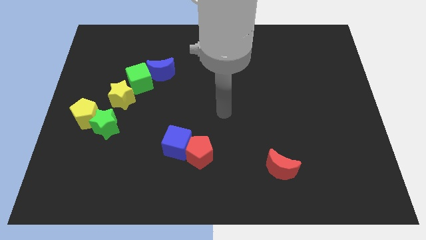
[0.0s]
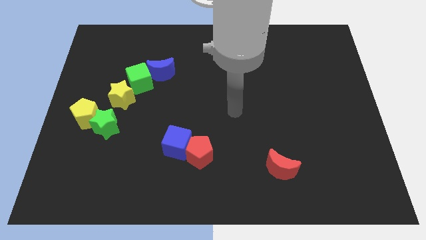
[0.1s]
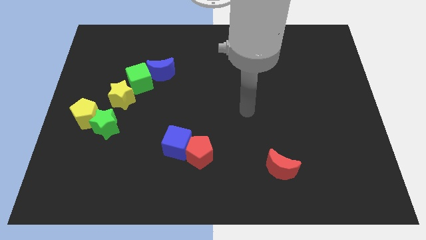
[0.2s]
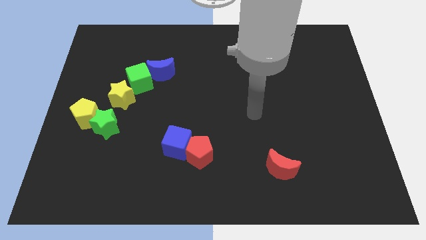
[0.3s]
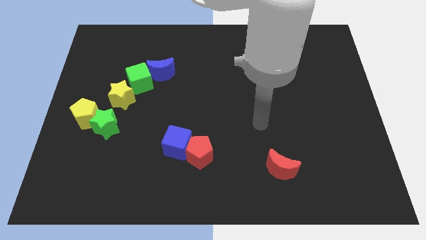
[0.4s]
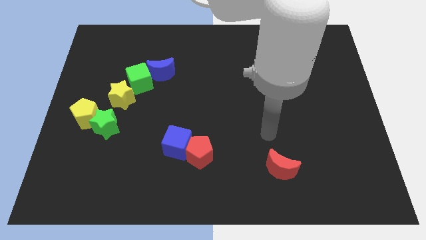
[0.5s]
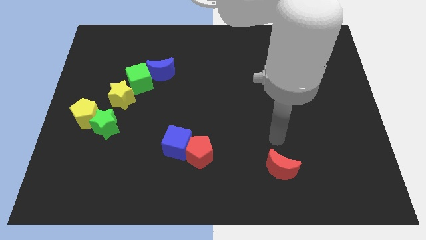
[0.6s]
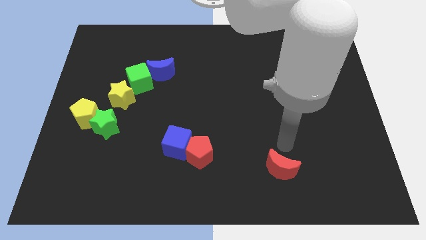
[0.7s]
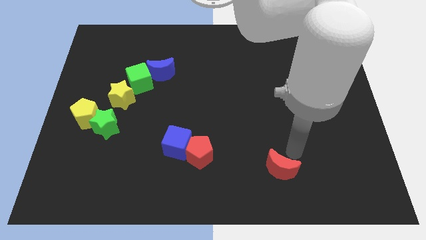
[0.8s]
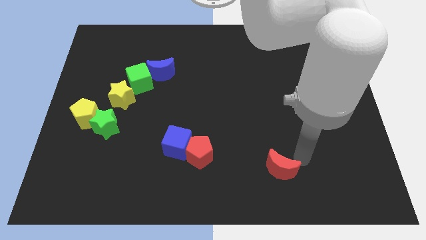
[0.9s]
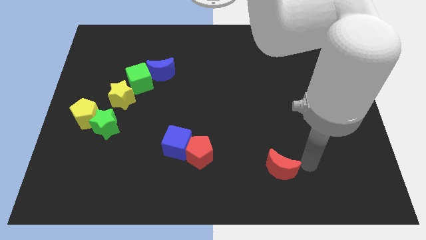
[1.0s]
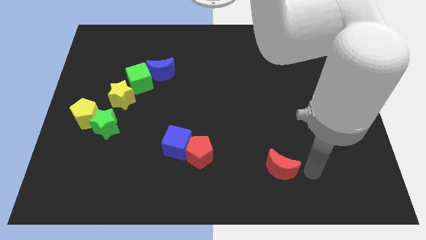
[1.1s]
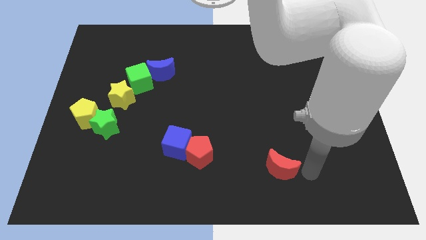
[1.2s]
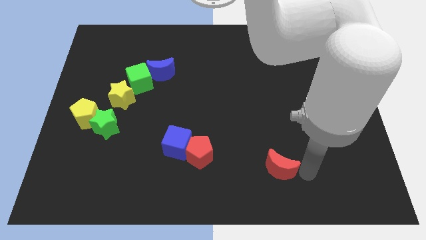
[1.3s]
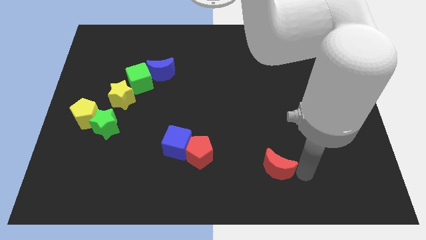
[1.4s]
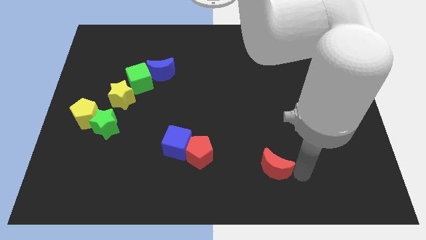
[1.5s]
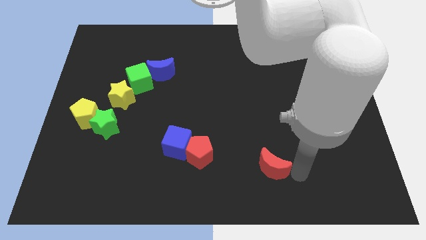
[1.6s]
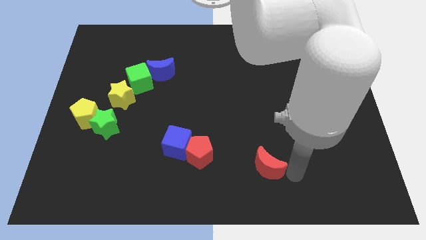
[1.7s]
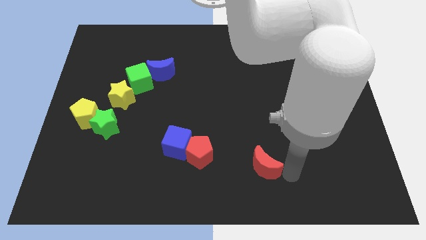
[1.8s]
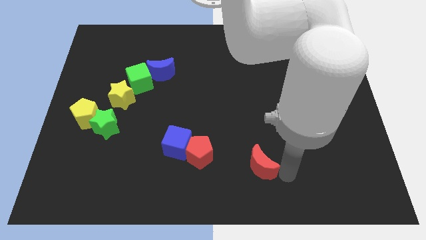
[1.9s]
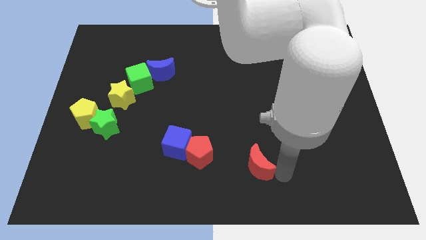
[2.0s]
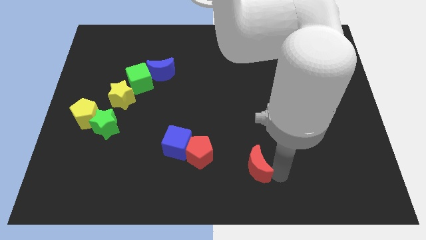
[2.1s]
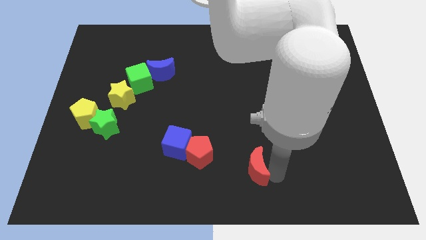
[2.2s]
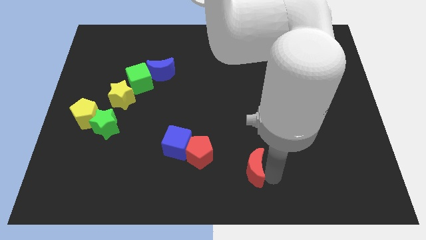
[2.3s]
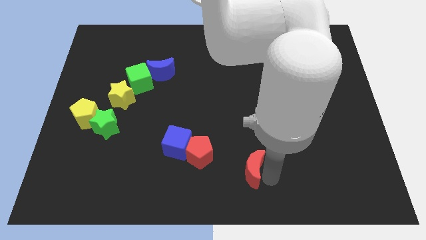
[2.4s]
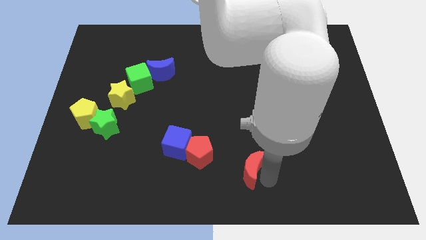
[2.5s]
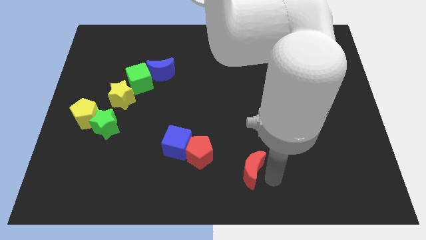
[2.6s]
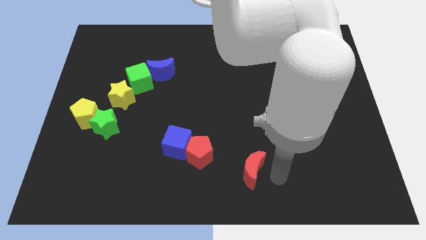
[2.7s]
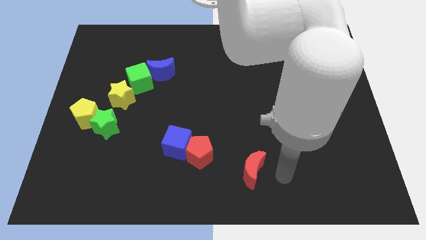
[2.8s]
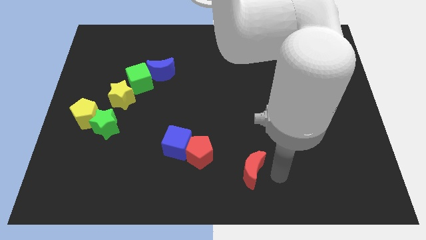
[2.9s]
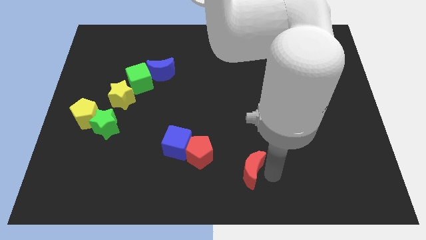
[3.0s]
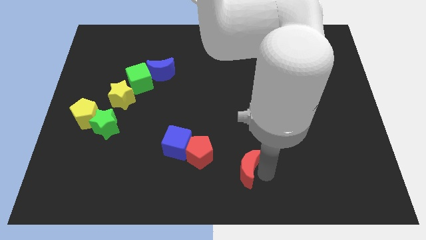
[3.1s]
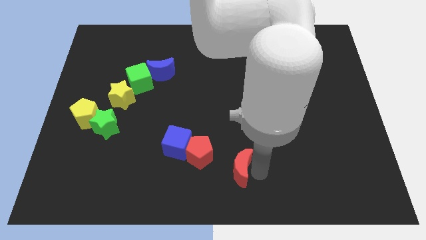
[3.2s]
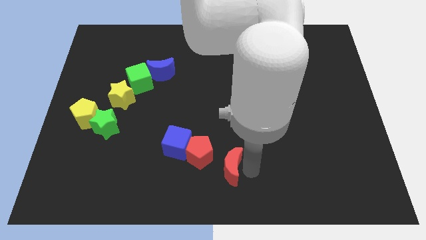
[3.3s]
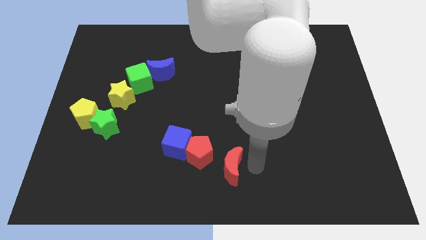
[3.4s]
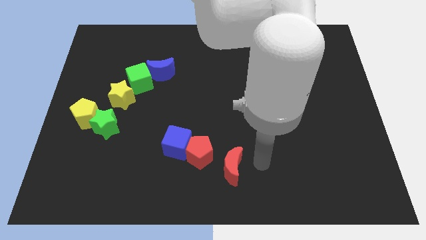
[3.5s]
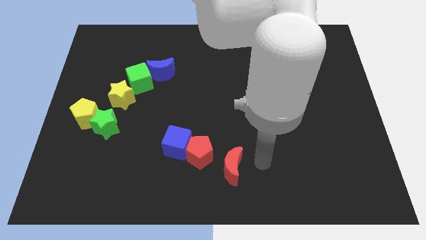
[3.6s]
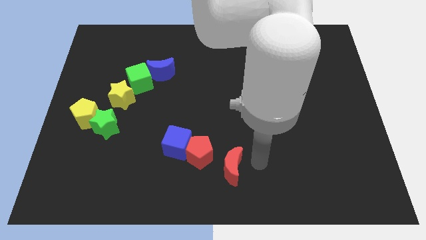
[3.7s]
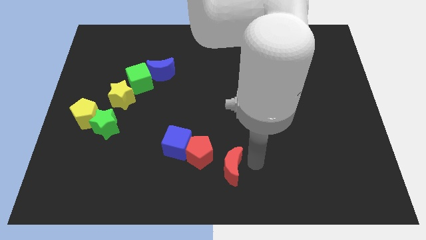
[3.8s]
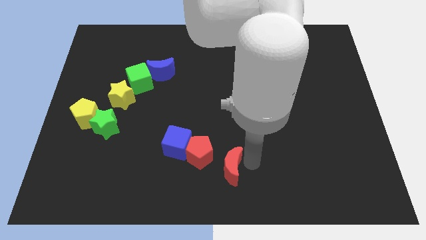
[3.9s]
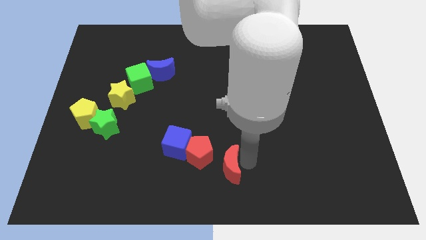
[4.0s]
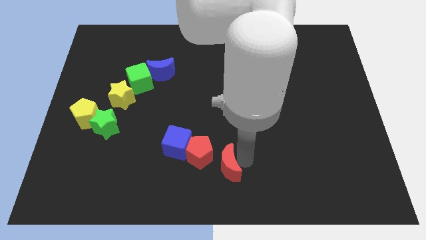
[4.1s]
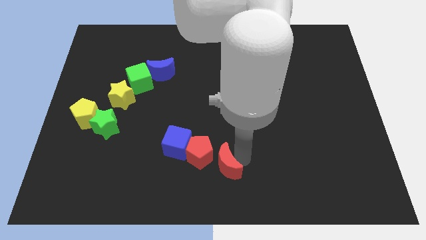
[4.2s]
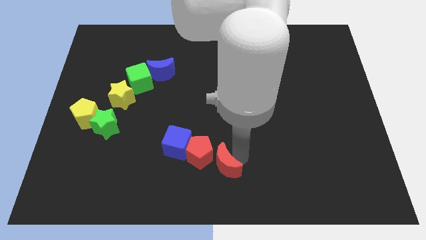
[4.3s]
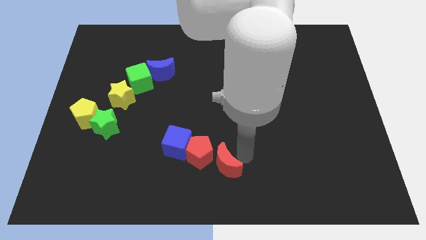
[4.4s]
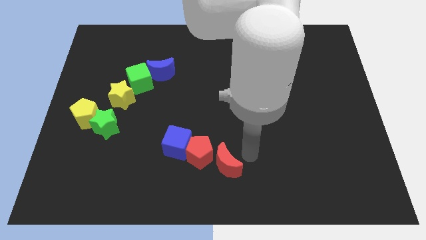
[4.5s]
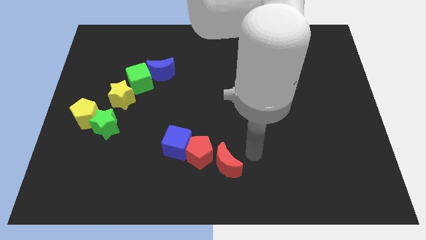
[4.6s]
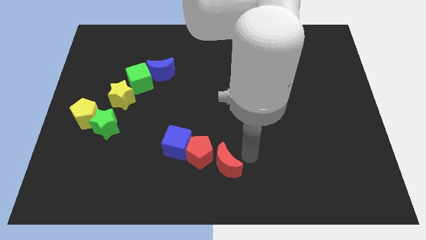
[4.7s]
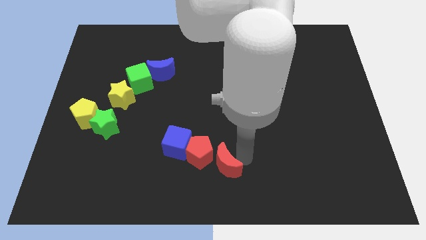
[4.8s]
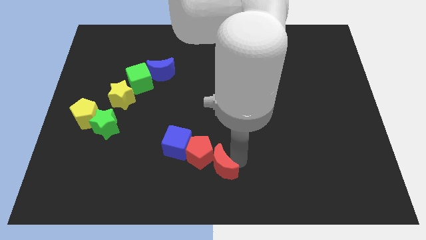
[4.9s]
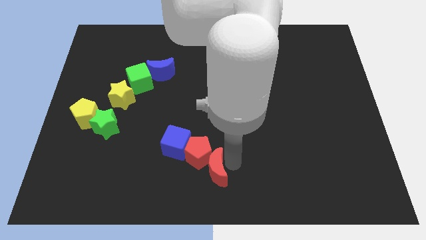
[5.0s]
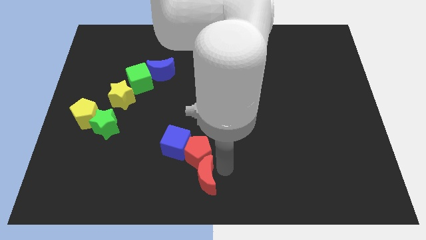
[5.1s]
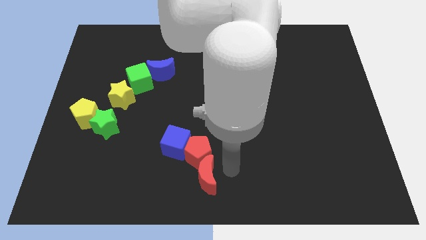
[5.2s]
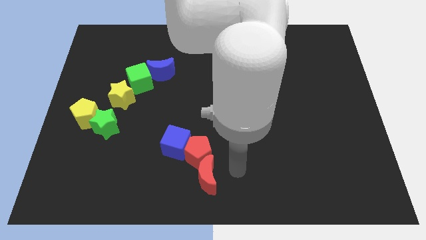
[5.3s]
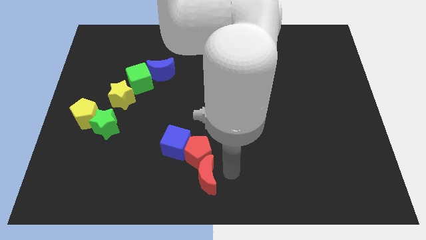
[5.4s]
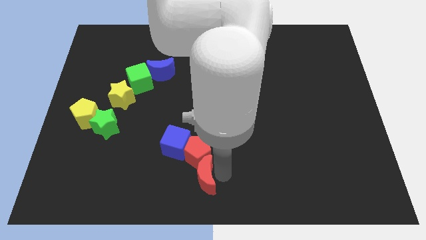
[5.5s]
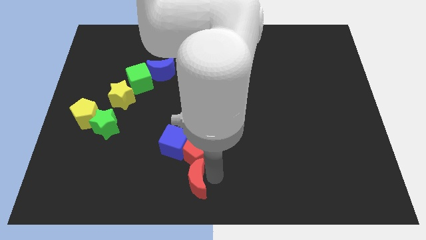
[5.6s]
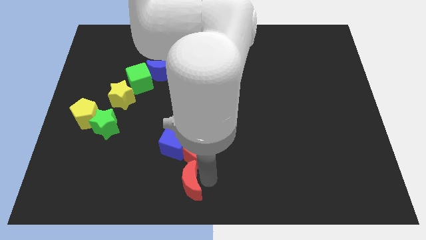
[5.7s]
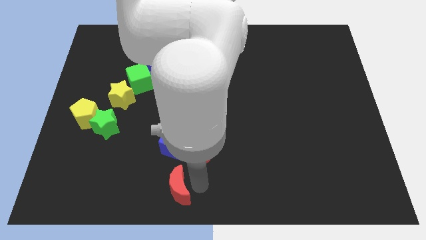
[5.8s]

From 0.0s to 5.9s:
move the red moon to the left

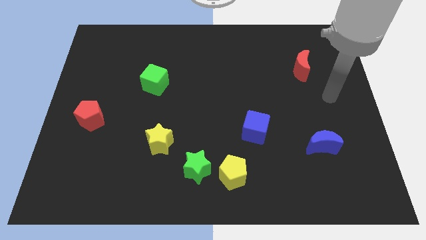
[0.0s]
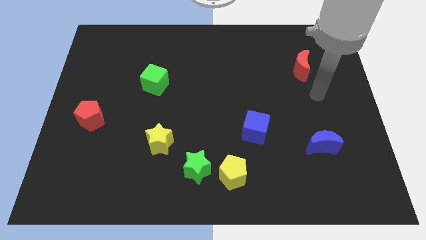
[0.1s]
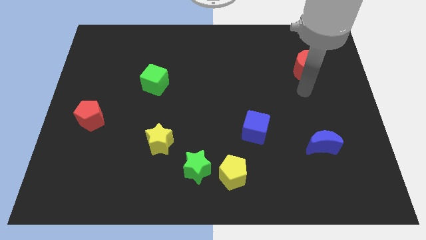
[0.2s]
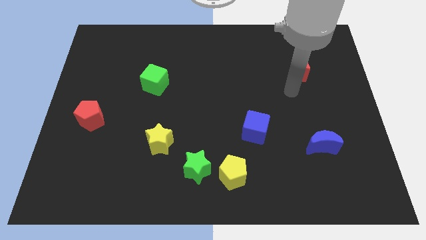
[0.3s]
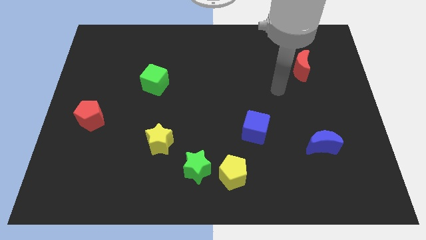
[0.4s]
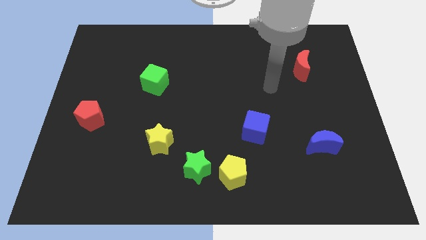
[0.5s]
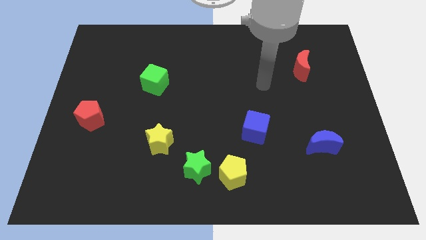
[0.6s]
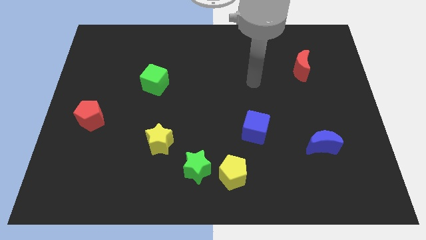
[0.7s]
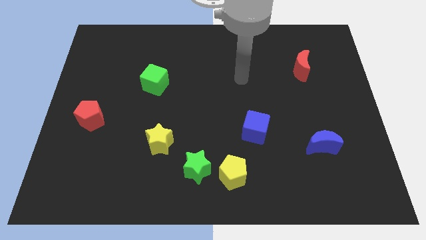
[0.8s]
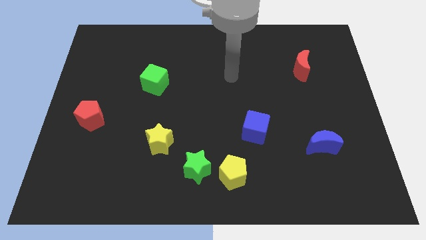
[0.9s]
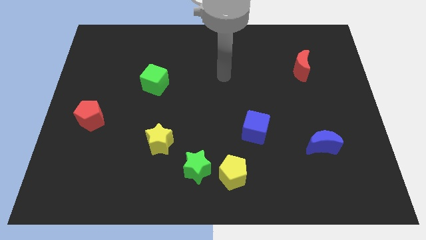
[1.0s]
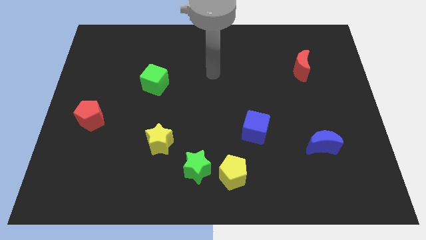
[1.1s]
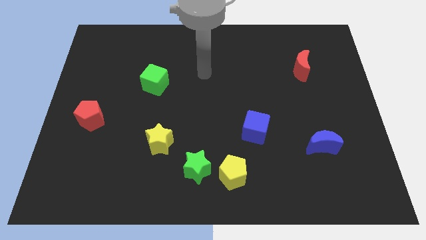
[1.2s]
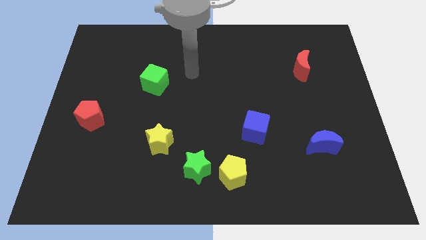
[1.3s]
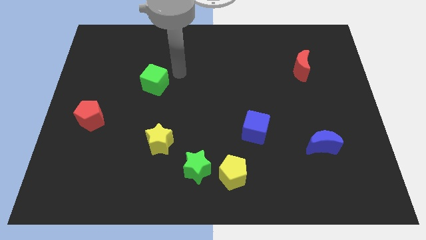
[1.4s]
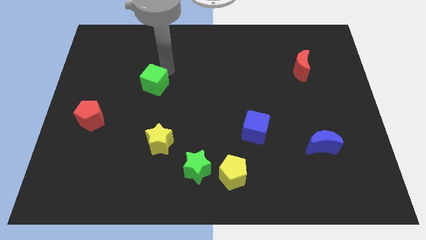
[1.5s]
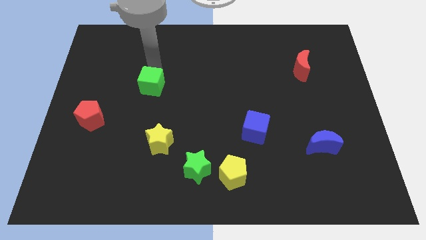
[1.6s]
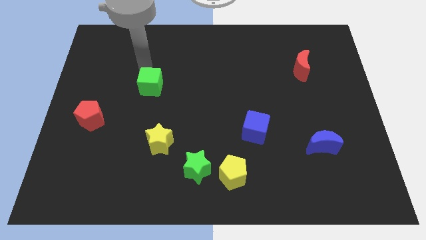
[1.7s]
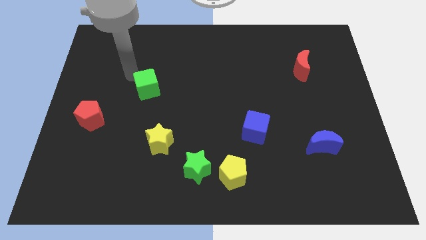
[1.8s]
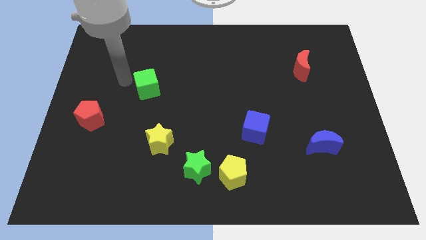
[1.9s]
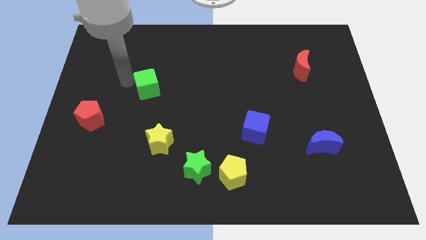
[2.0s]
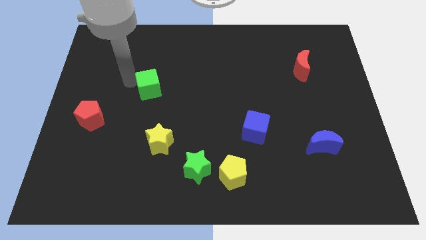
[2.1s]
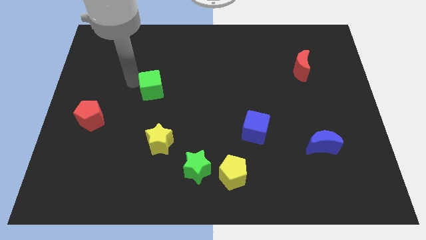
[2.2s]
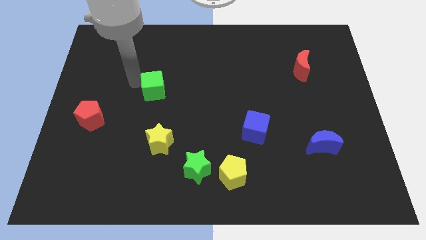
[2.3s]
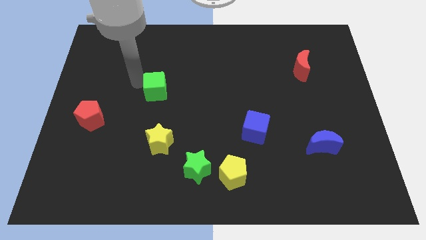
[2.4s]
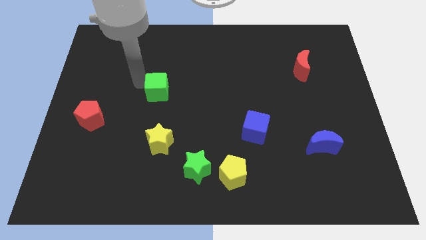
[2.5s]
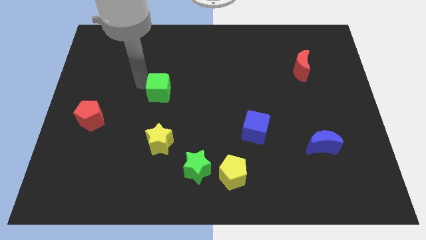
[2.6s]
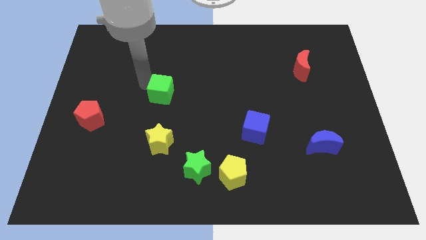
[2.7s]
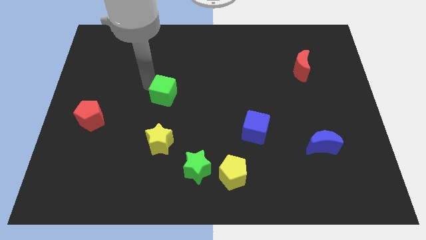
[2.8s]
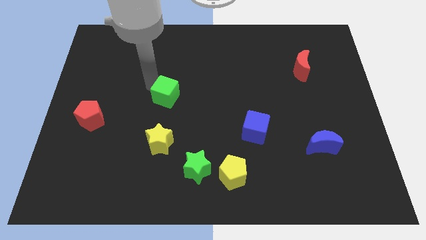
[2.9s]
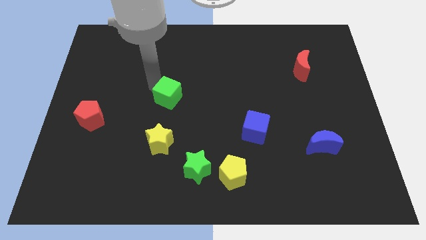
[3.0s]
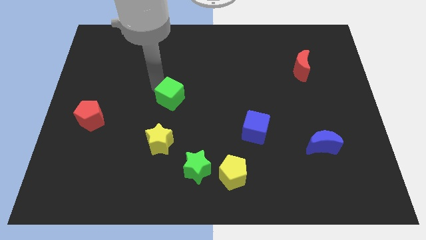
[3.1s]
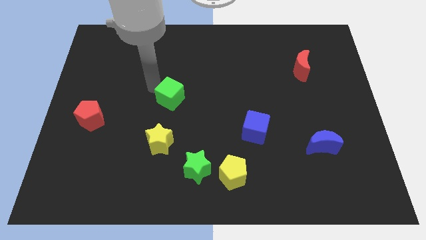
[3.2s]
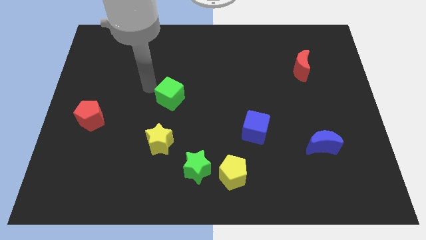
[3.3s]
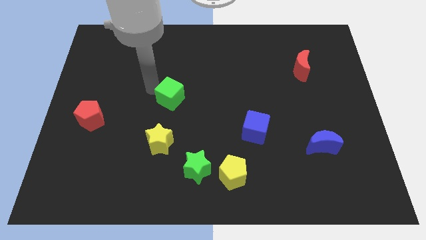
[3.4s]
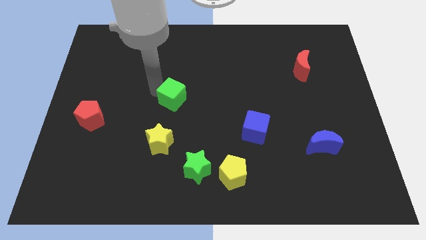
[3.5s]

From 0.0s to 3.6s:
slightly move the green cube diagonally down and to the right
